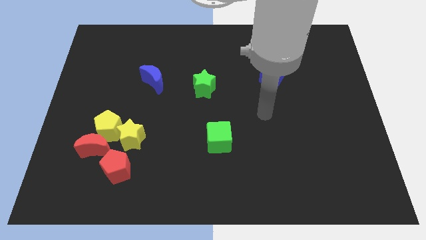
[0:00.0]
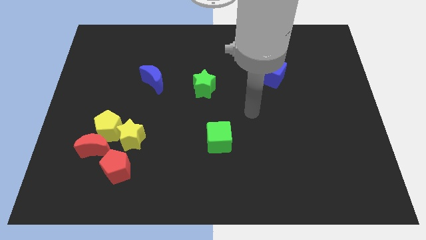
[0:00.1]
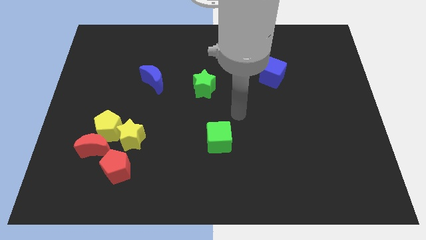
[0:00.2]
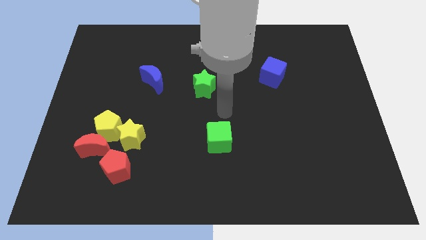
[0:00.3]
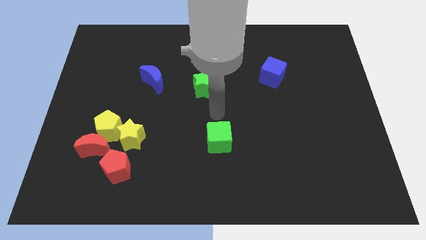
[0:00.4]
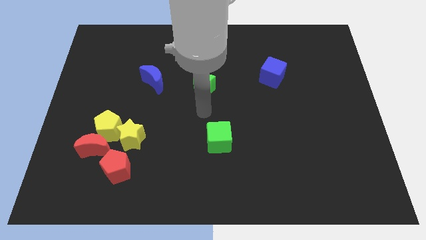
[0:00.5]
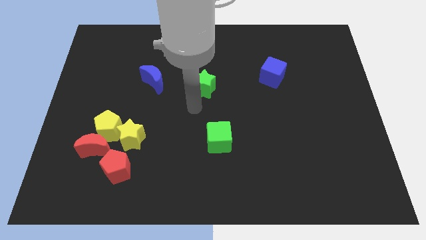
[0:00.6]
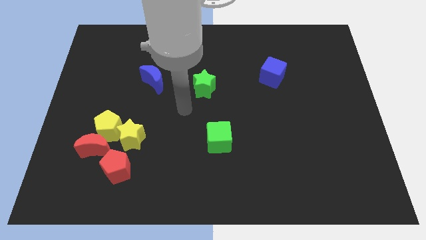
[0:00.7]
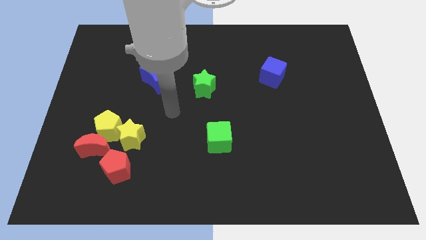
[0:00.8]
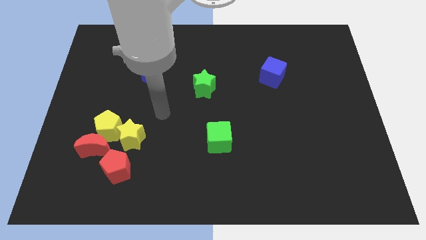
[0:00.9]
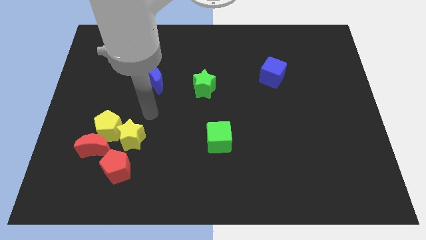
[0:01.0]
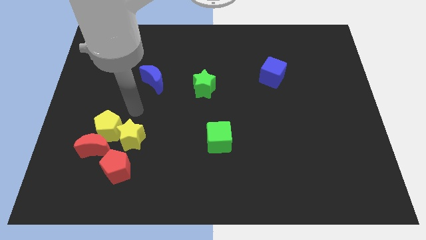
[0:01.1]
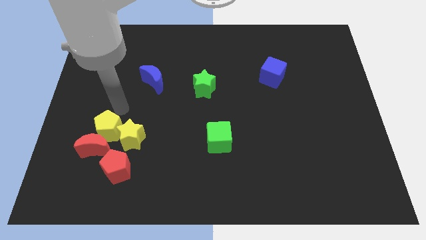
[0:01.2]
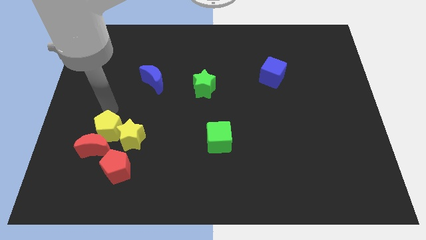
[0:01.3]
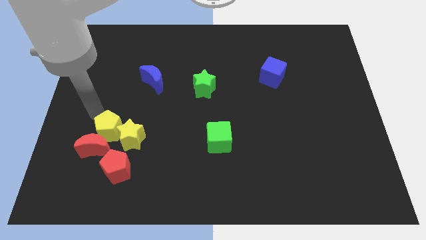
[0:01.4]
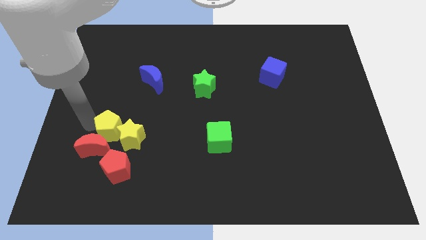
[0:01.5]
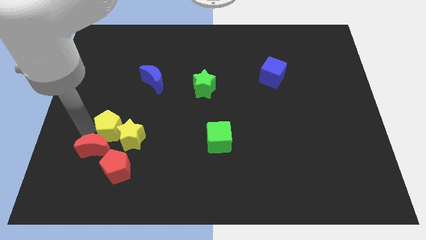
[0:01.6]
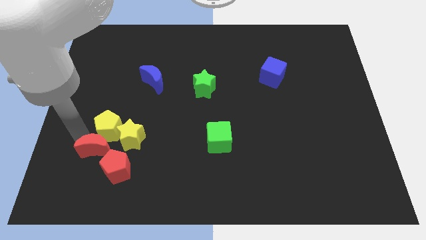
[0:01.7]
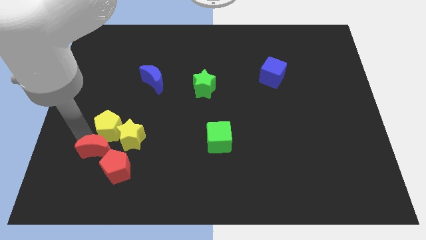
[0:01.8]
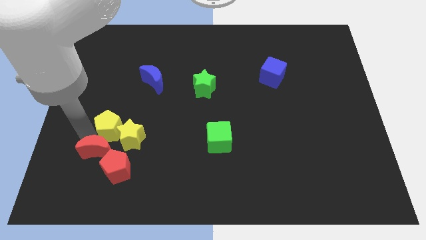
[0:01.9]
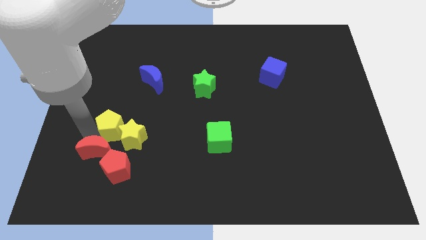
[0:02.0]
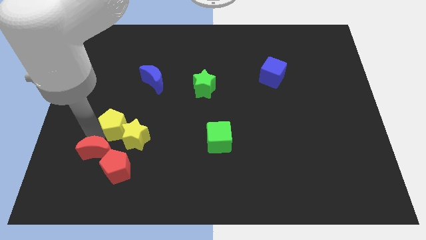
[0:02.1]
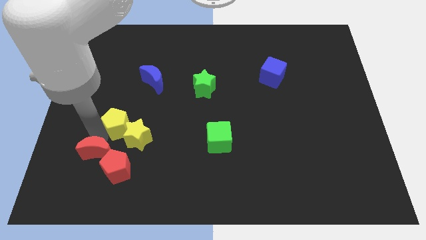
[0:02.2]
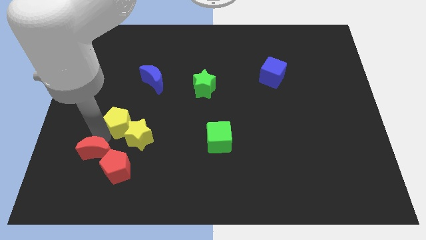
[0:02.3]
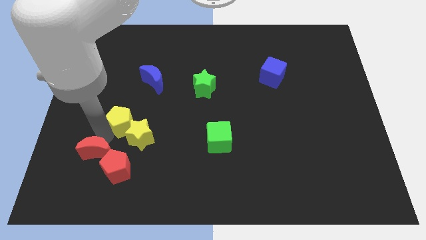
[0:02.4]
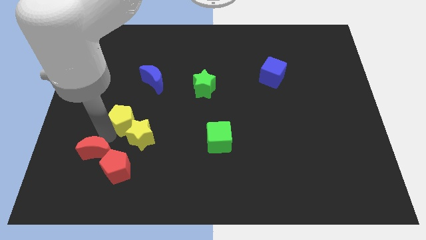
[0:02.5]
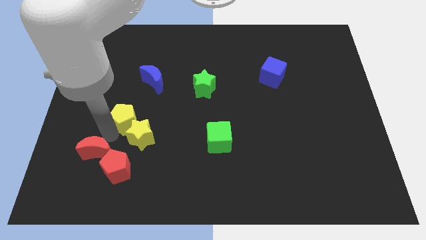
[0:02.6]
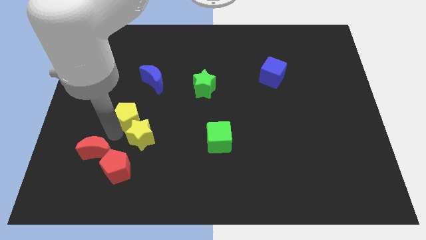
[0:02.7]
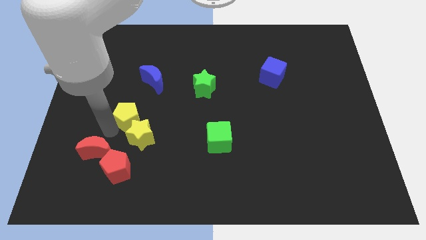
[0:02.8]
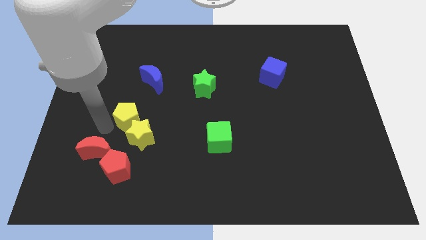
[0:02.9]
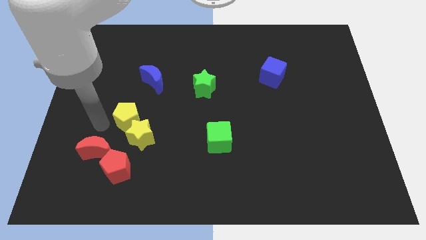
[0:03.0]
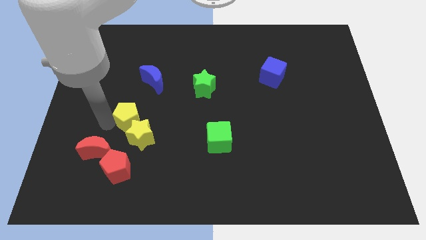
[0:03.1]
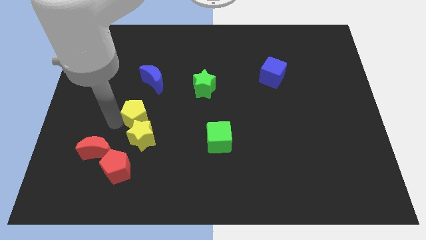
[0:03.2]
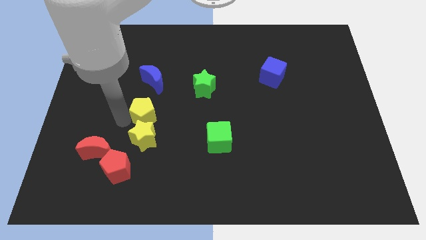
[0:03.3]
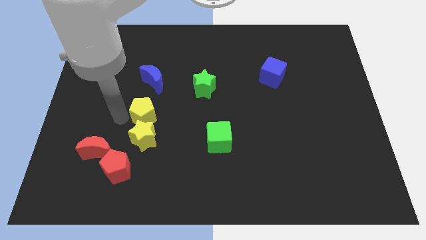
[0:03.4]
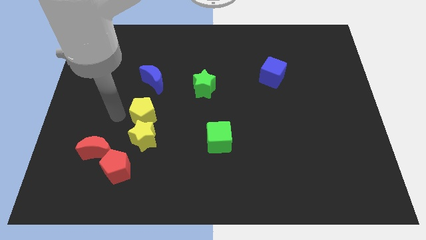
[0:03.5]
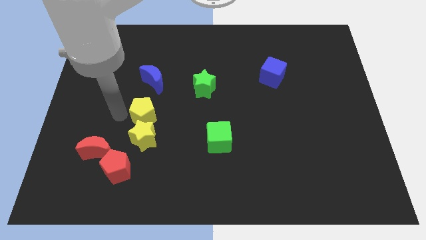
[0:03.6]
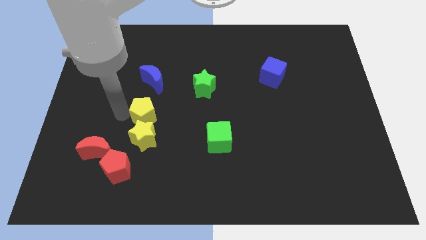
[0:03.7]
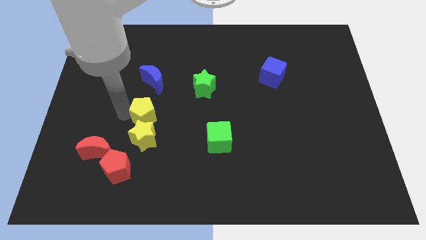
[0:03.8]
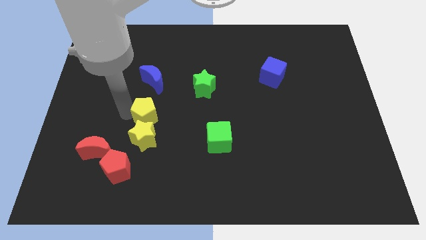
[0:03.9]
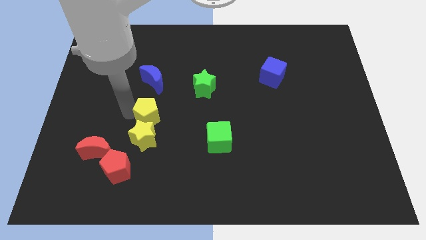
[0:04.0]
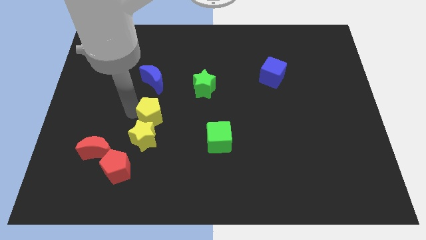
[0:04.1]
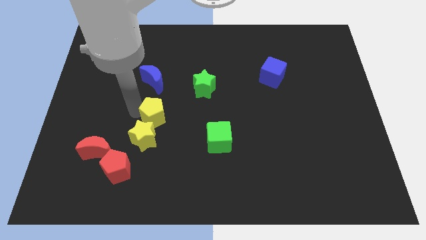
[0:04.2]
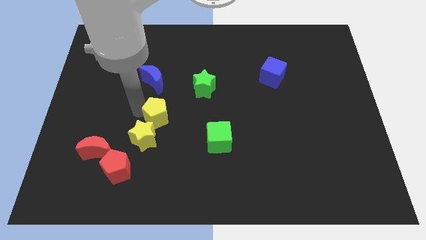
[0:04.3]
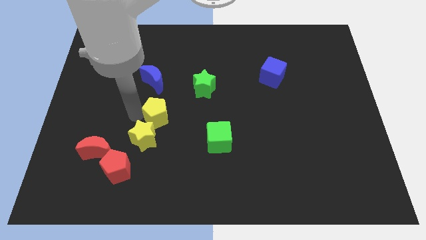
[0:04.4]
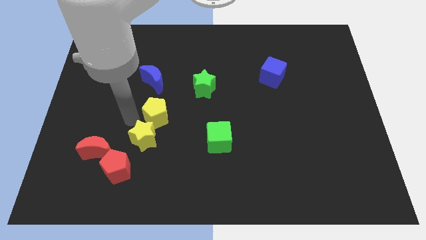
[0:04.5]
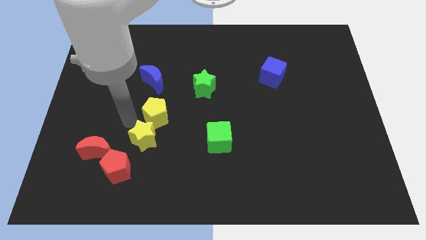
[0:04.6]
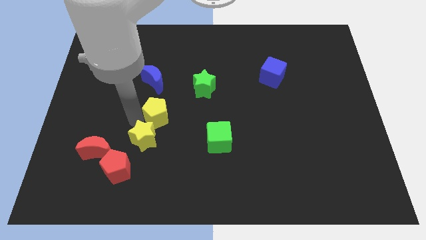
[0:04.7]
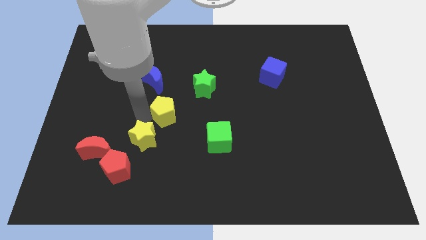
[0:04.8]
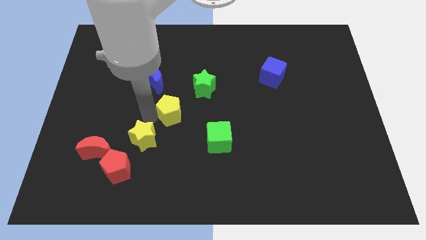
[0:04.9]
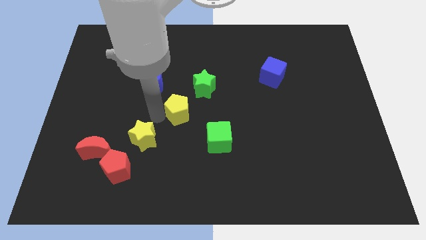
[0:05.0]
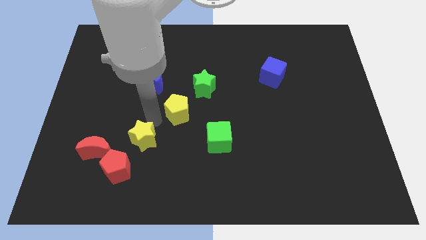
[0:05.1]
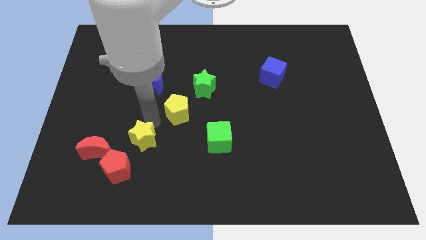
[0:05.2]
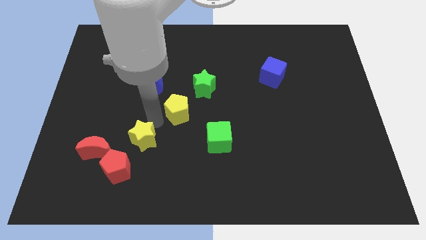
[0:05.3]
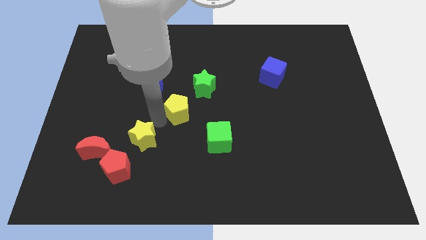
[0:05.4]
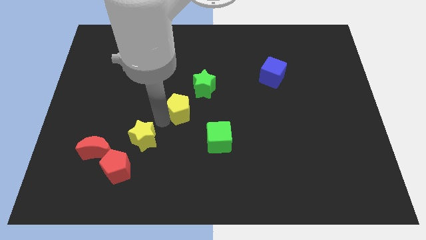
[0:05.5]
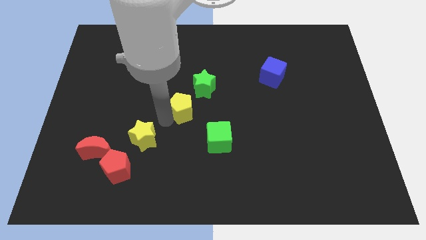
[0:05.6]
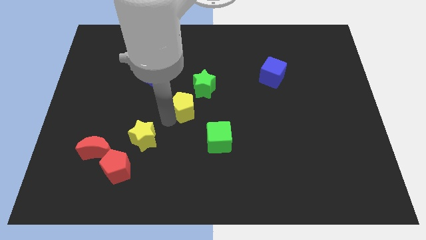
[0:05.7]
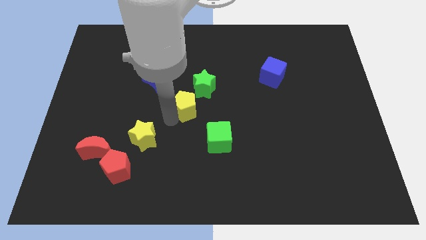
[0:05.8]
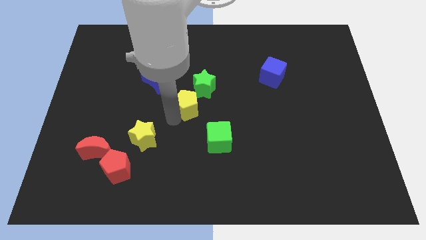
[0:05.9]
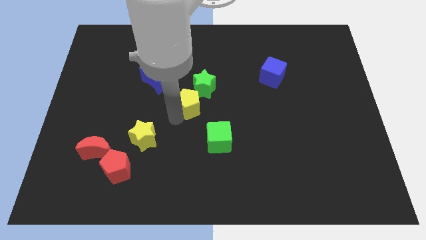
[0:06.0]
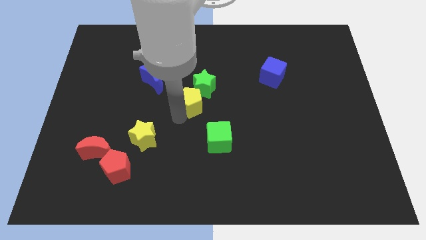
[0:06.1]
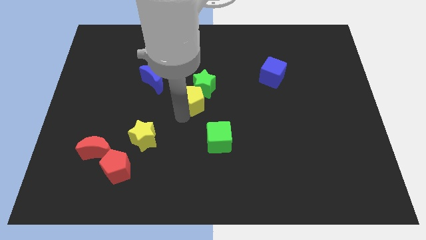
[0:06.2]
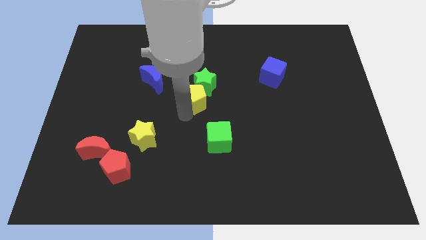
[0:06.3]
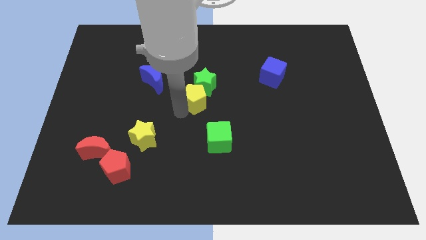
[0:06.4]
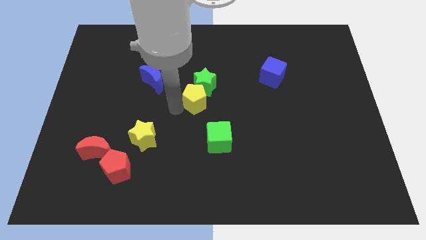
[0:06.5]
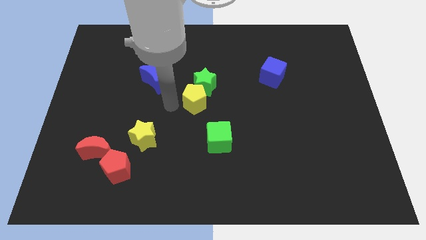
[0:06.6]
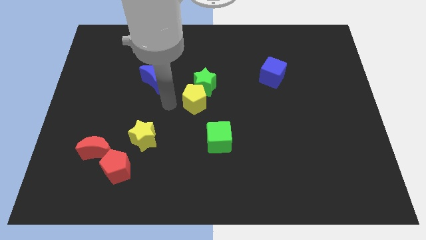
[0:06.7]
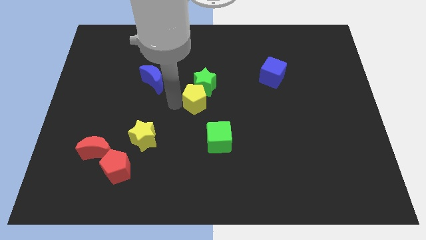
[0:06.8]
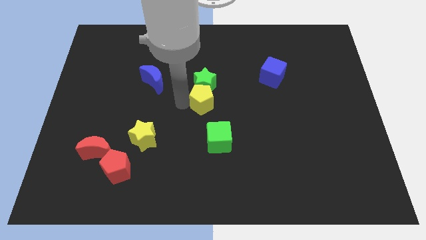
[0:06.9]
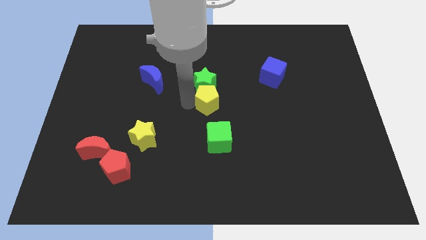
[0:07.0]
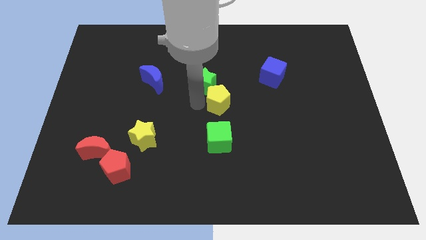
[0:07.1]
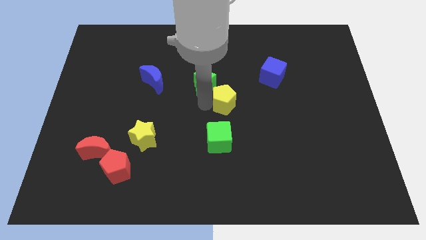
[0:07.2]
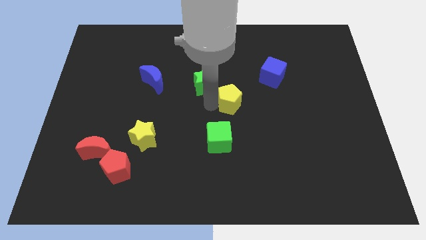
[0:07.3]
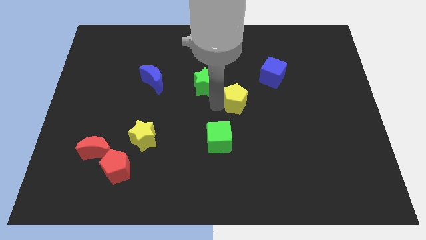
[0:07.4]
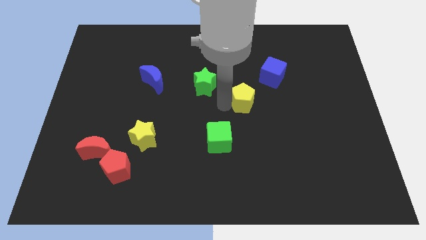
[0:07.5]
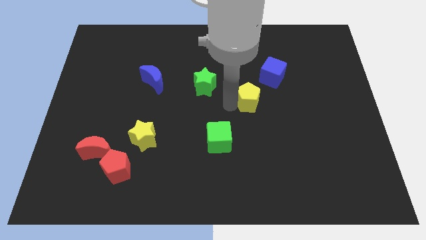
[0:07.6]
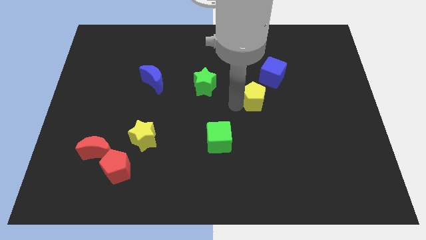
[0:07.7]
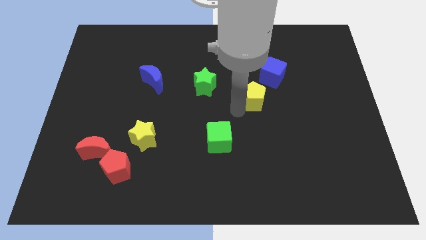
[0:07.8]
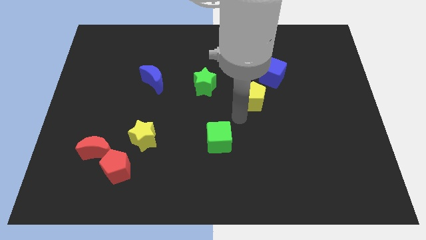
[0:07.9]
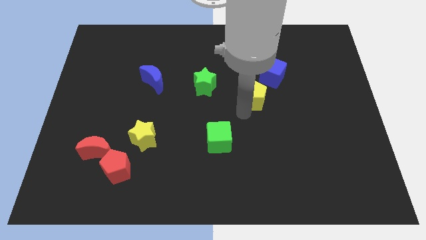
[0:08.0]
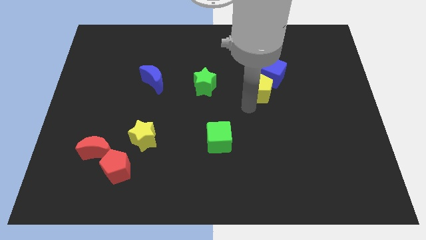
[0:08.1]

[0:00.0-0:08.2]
move the yellow pentagon to the blue cube
